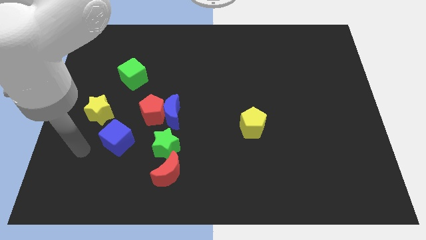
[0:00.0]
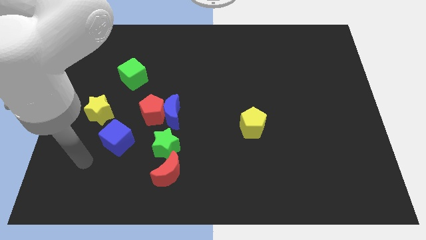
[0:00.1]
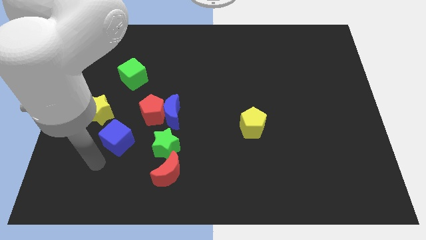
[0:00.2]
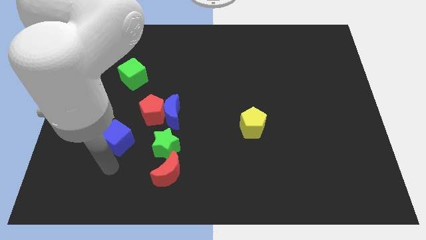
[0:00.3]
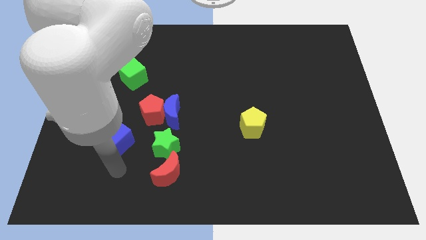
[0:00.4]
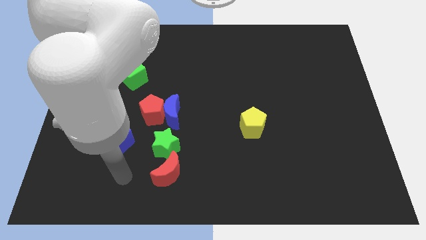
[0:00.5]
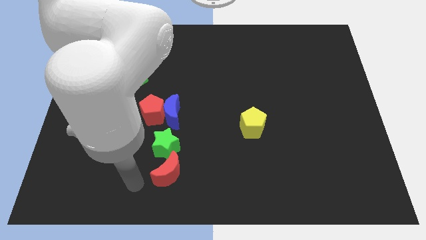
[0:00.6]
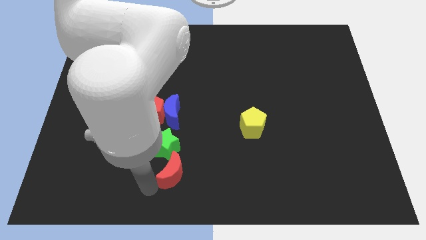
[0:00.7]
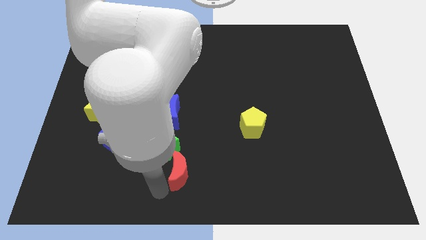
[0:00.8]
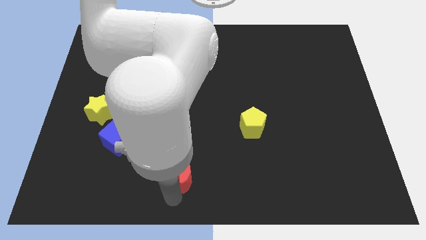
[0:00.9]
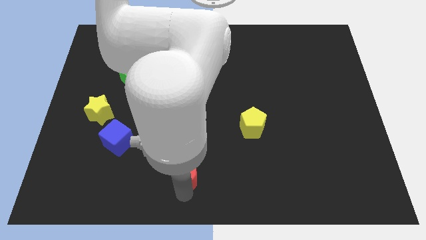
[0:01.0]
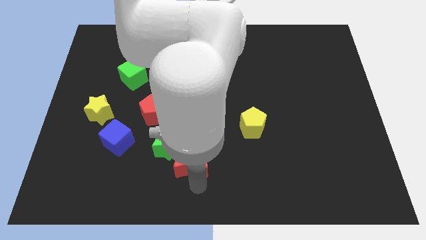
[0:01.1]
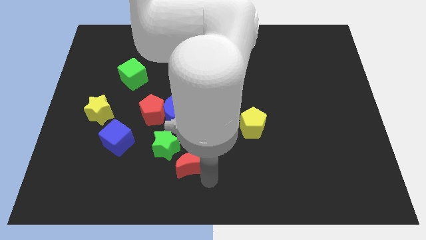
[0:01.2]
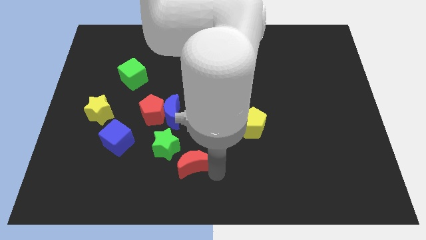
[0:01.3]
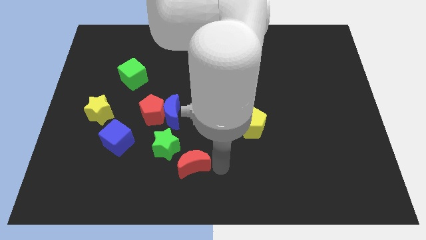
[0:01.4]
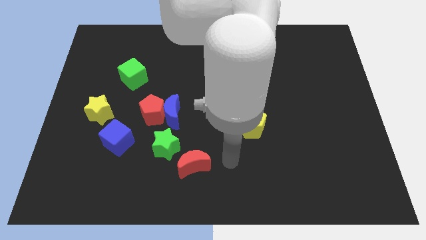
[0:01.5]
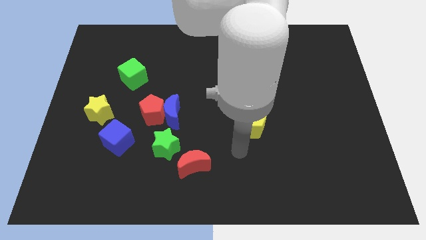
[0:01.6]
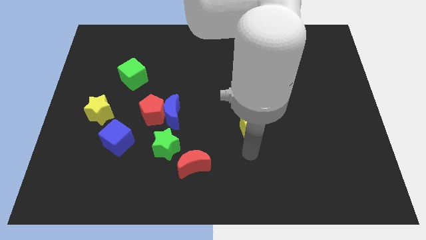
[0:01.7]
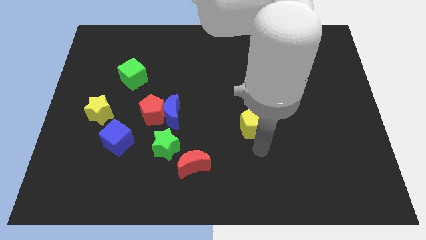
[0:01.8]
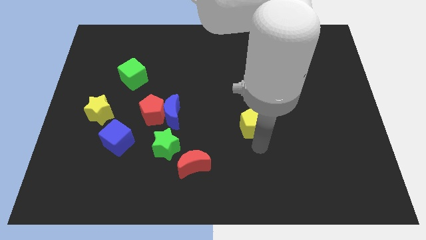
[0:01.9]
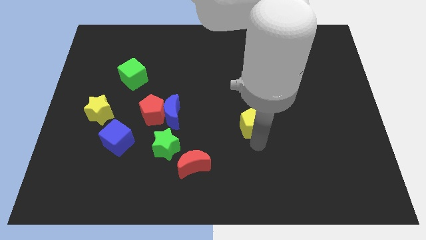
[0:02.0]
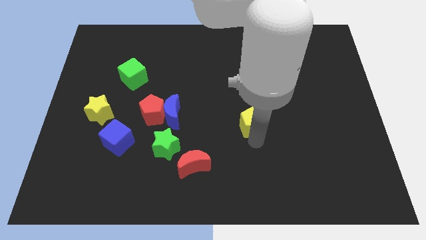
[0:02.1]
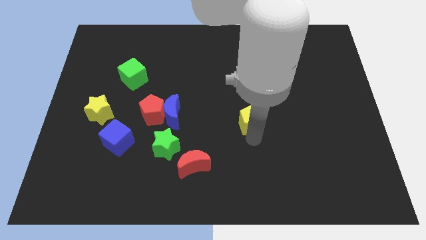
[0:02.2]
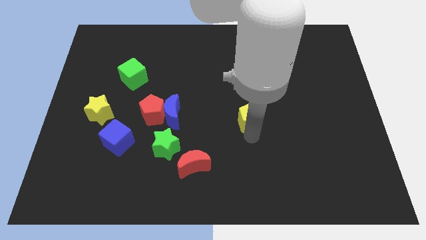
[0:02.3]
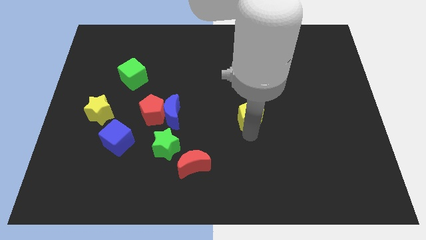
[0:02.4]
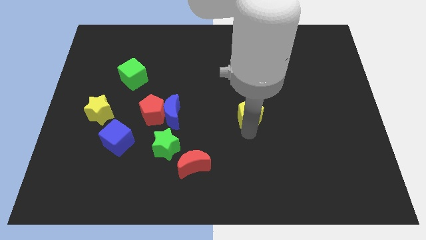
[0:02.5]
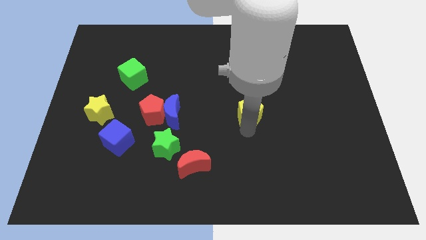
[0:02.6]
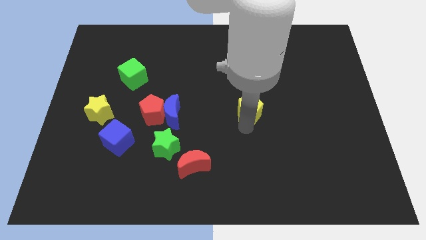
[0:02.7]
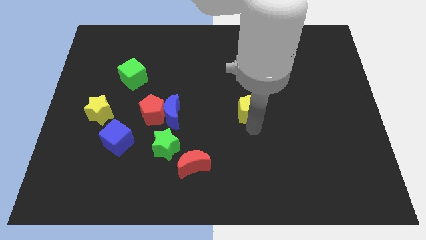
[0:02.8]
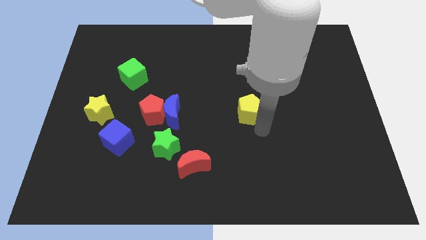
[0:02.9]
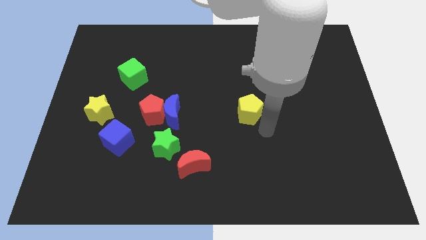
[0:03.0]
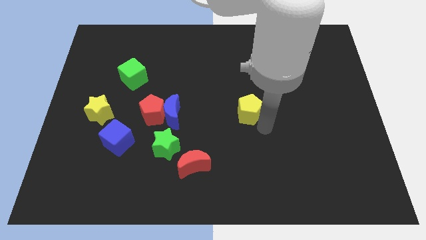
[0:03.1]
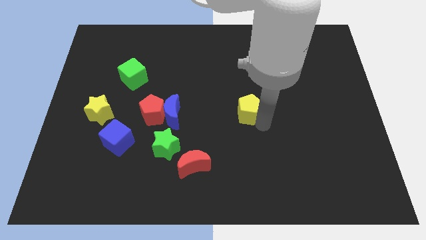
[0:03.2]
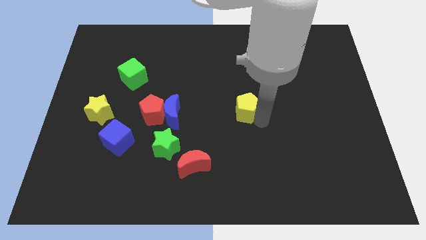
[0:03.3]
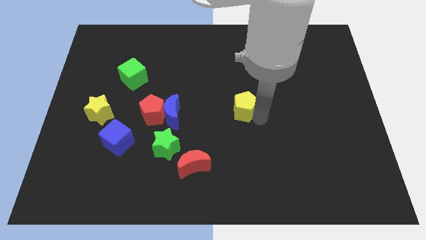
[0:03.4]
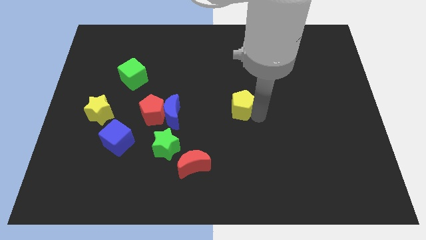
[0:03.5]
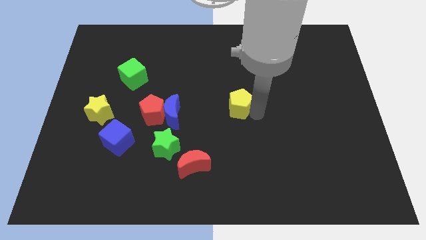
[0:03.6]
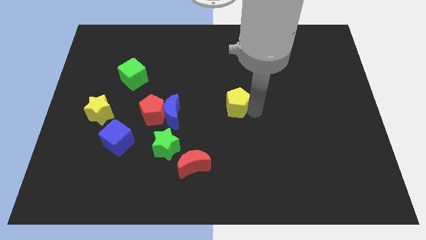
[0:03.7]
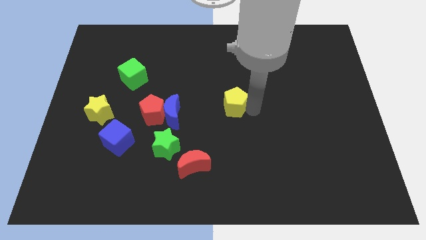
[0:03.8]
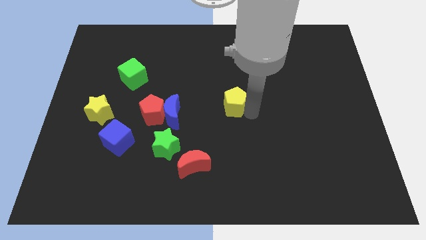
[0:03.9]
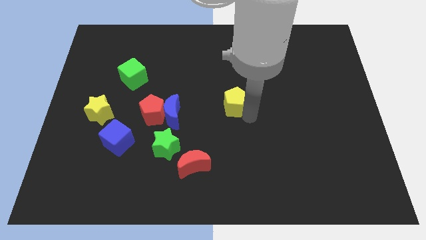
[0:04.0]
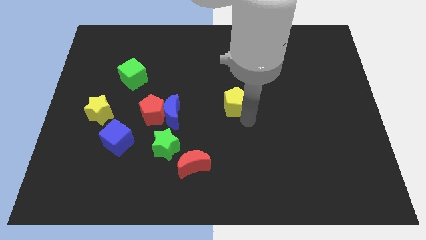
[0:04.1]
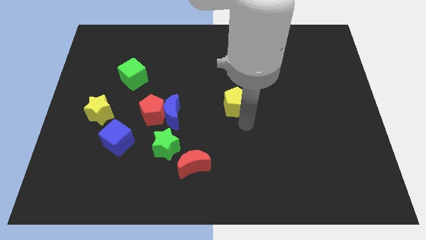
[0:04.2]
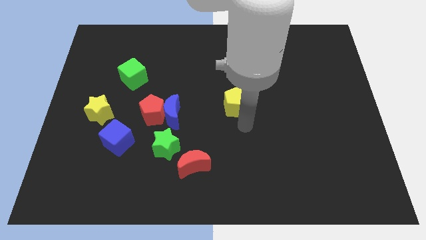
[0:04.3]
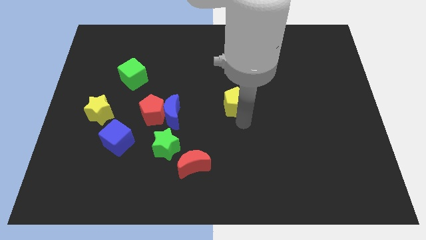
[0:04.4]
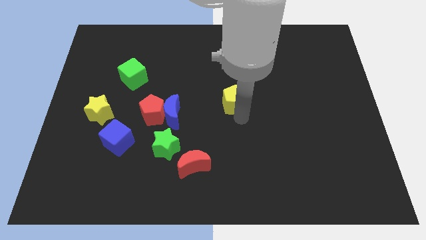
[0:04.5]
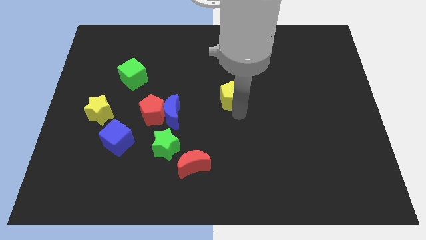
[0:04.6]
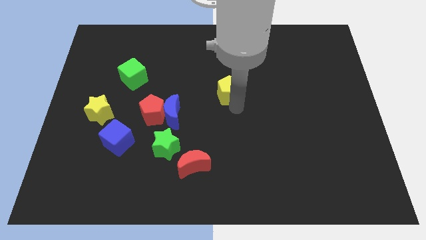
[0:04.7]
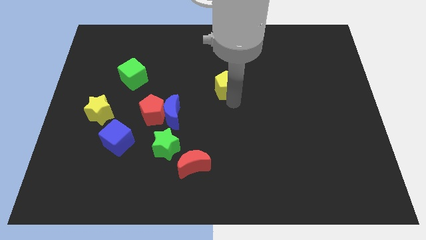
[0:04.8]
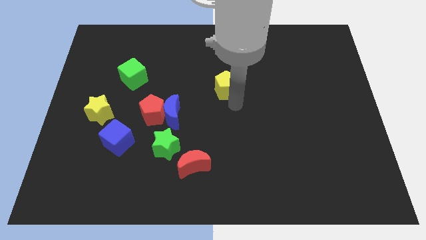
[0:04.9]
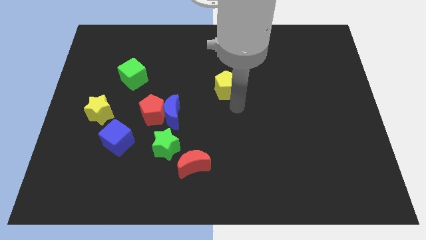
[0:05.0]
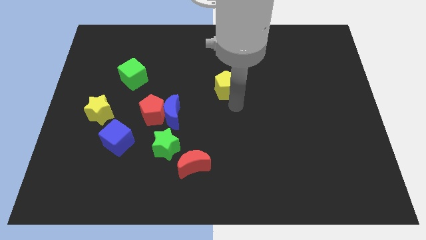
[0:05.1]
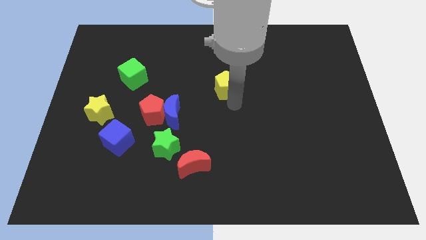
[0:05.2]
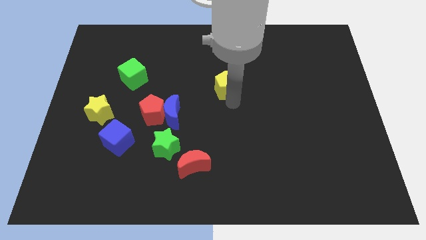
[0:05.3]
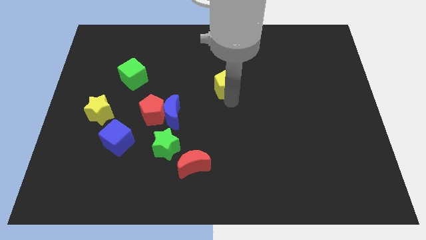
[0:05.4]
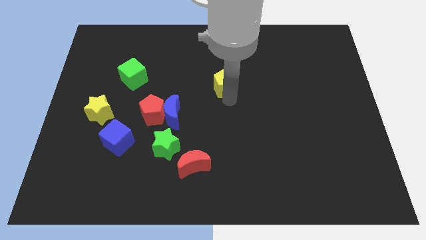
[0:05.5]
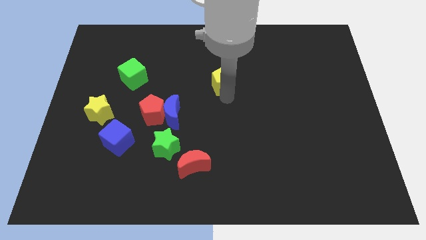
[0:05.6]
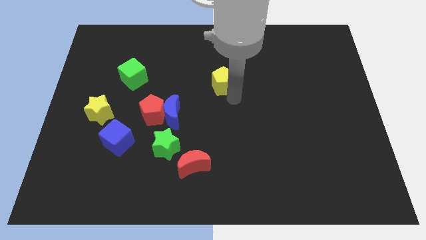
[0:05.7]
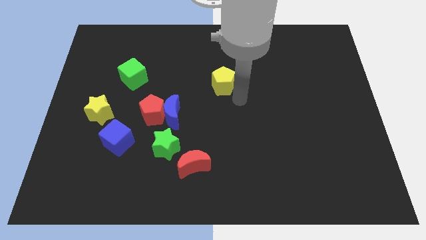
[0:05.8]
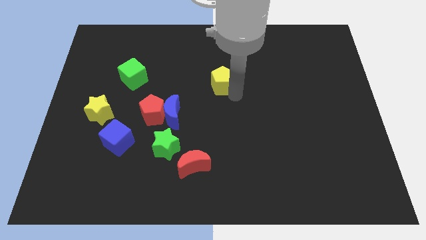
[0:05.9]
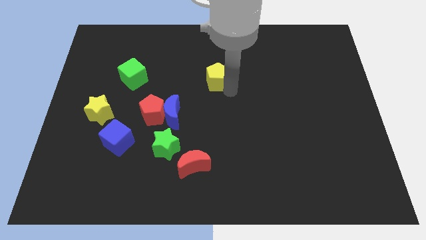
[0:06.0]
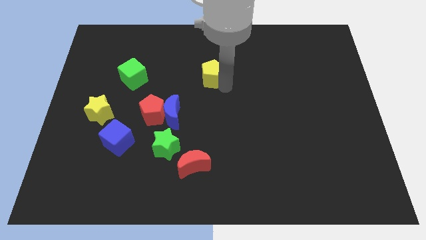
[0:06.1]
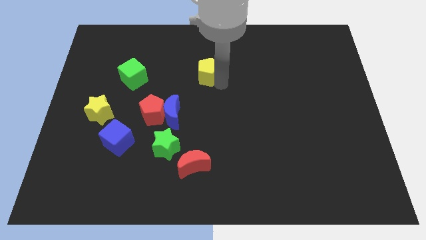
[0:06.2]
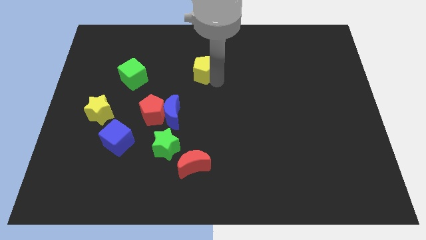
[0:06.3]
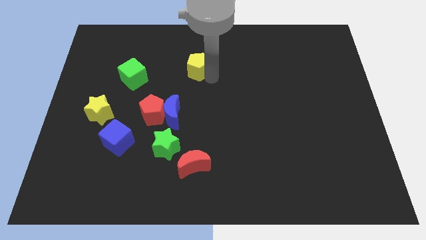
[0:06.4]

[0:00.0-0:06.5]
slide the yellow pentagon upwards and then to the left

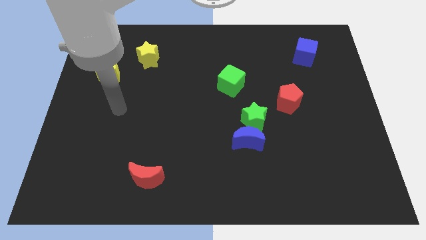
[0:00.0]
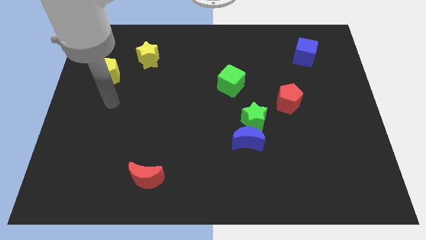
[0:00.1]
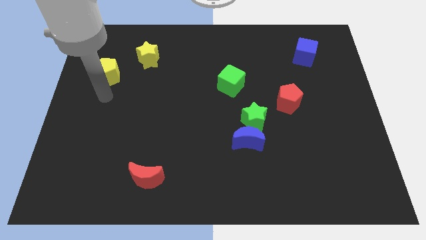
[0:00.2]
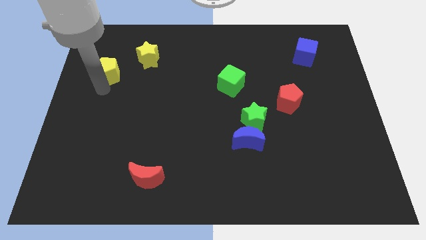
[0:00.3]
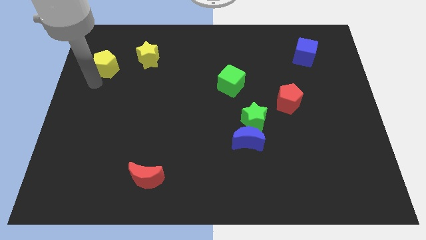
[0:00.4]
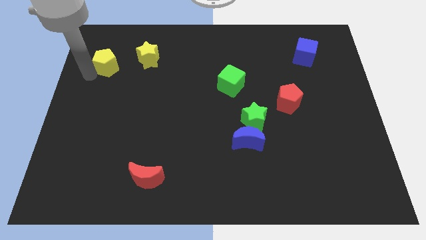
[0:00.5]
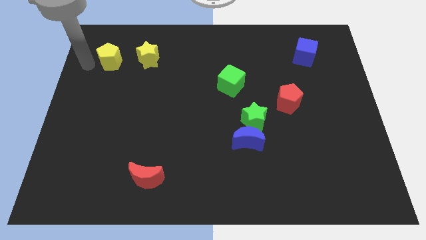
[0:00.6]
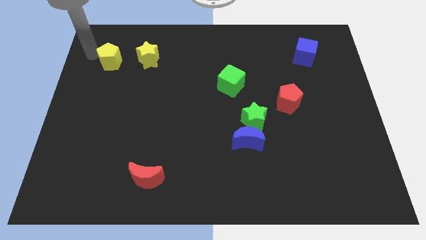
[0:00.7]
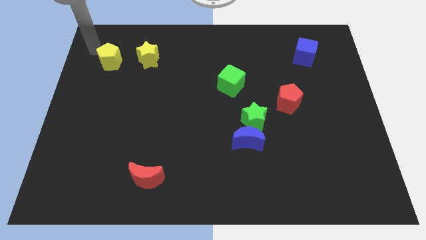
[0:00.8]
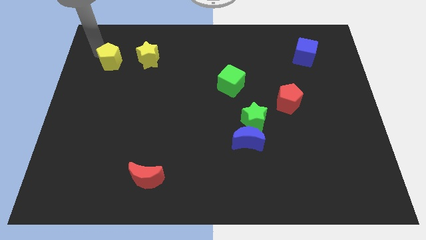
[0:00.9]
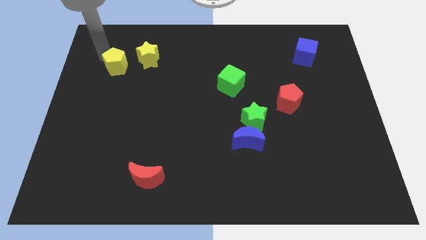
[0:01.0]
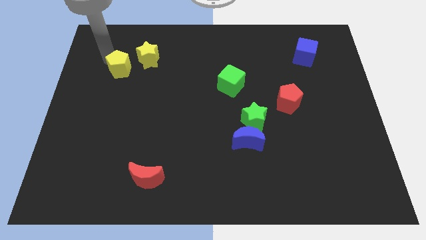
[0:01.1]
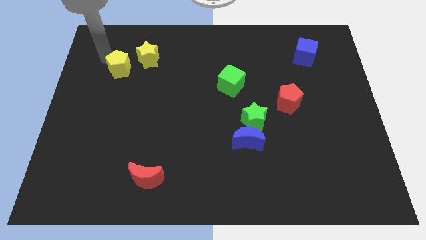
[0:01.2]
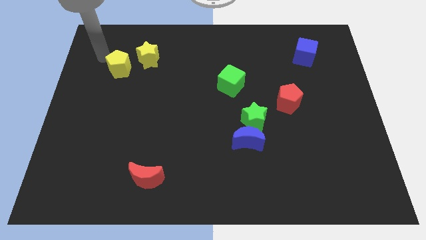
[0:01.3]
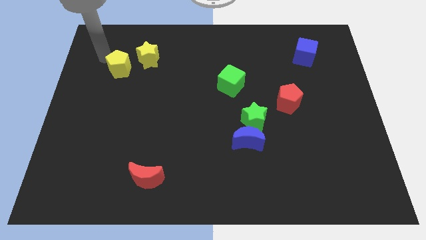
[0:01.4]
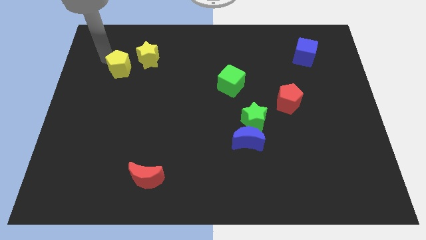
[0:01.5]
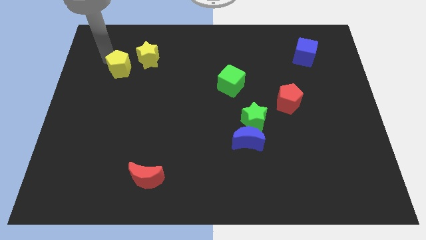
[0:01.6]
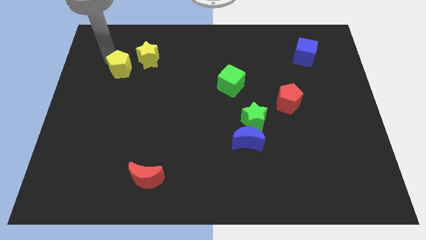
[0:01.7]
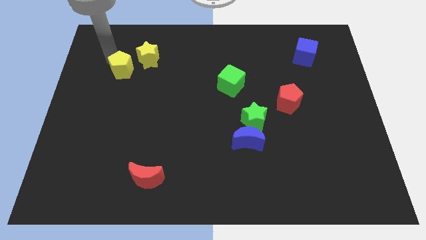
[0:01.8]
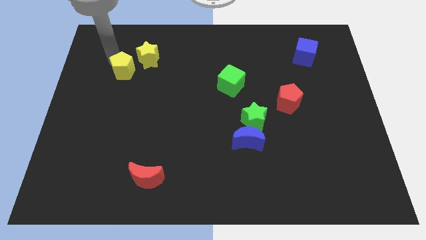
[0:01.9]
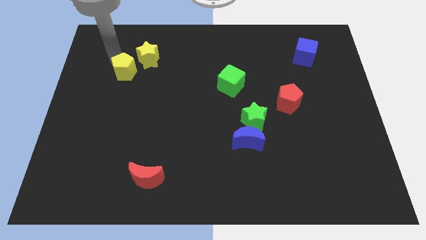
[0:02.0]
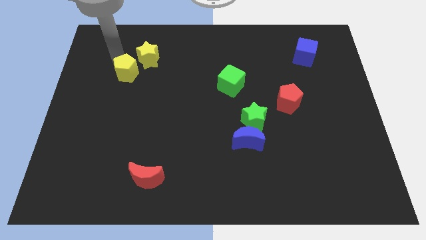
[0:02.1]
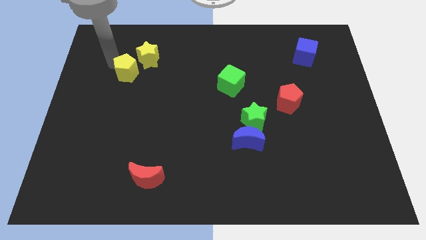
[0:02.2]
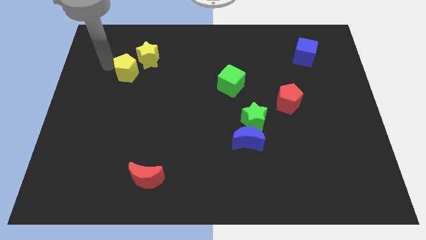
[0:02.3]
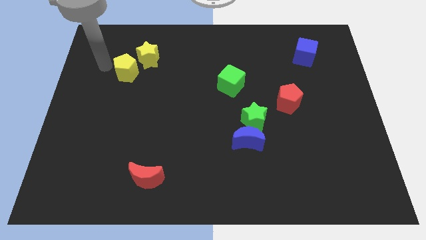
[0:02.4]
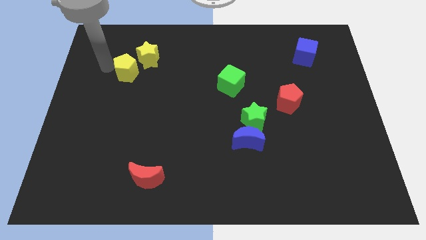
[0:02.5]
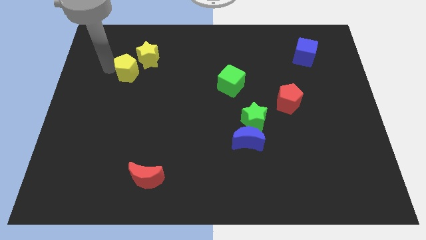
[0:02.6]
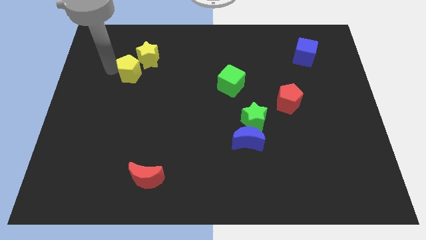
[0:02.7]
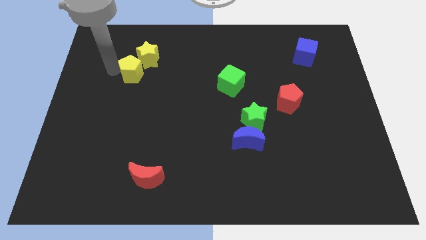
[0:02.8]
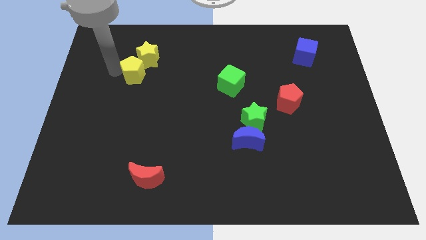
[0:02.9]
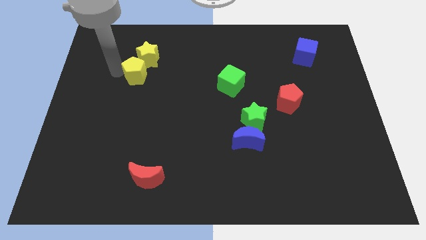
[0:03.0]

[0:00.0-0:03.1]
move the yellow pentagon to the right a little bit
